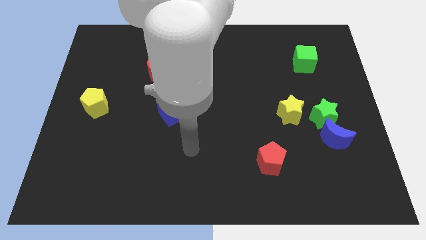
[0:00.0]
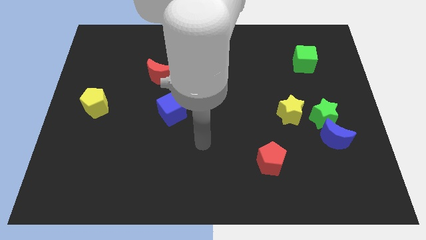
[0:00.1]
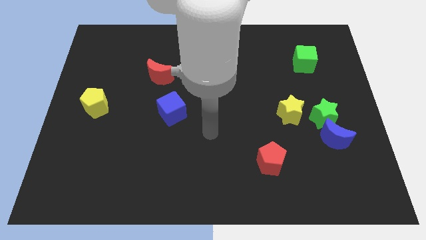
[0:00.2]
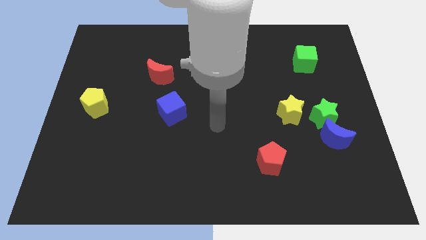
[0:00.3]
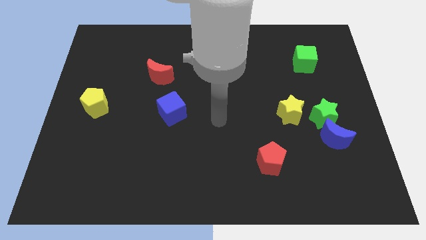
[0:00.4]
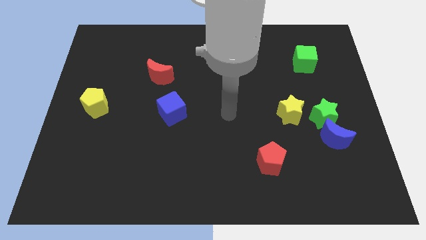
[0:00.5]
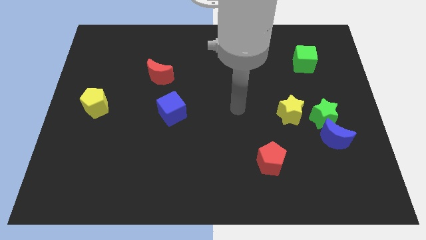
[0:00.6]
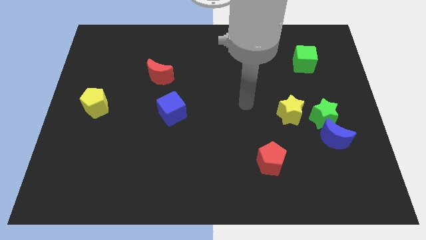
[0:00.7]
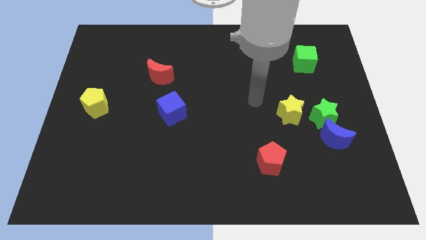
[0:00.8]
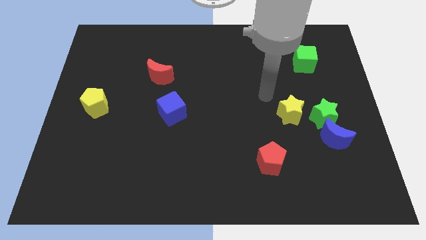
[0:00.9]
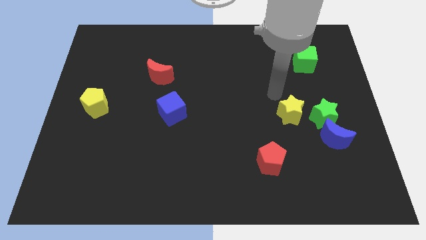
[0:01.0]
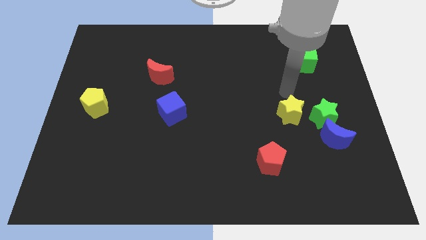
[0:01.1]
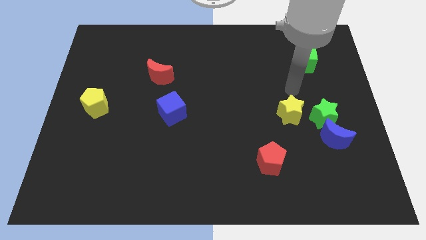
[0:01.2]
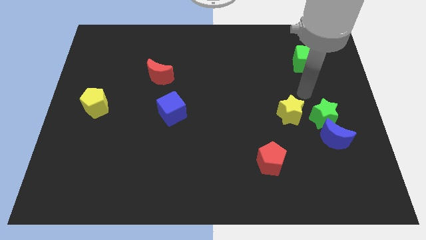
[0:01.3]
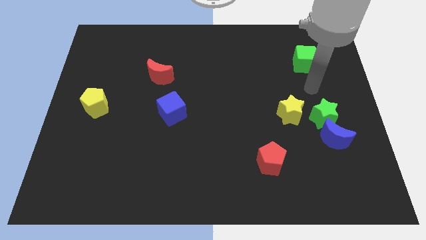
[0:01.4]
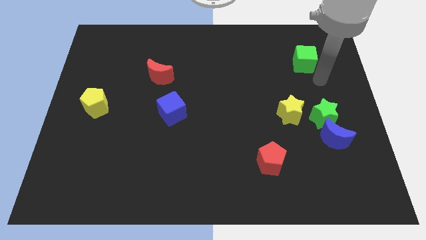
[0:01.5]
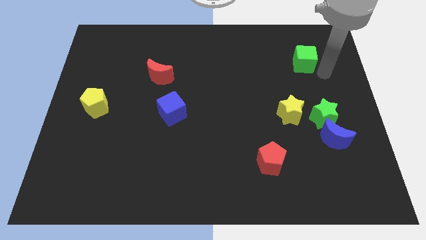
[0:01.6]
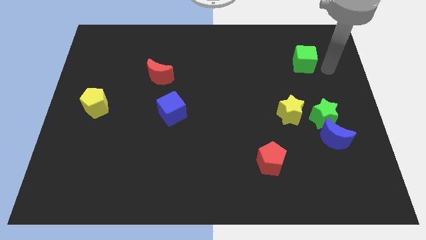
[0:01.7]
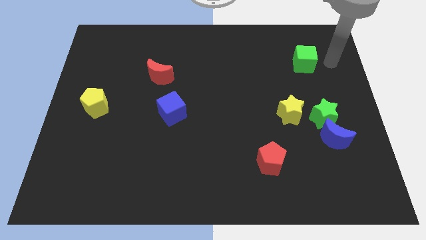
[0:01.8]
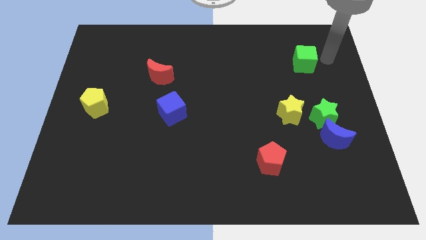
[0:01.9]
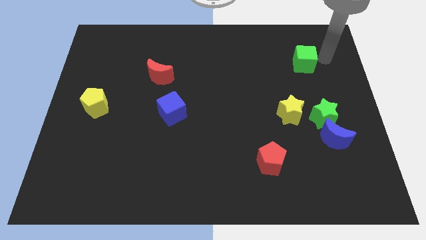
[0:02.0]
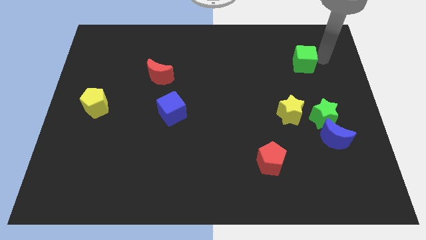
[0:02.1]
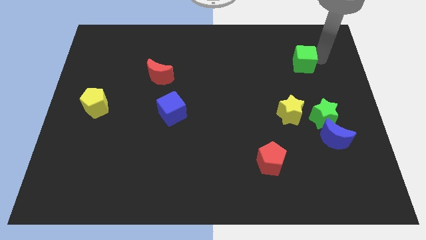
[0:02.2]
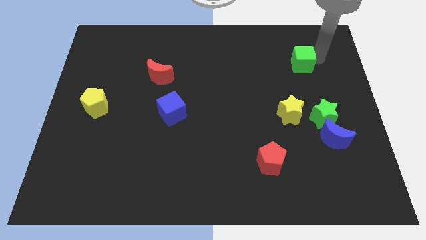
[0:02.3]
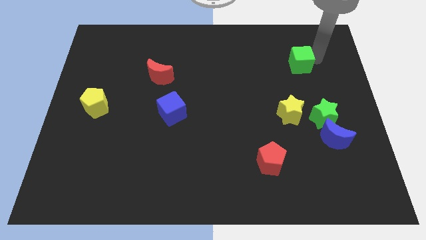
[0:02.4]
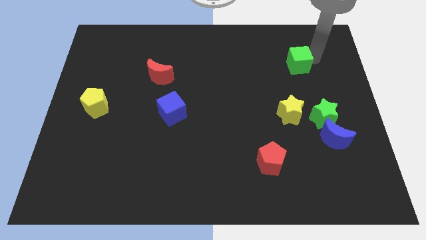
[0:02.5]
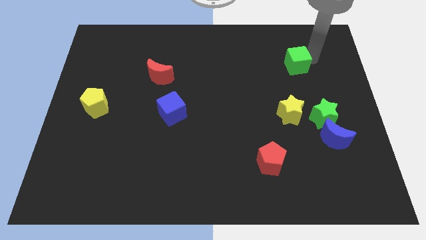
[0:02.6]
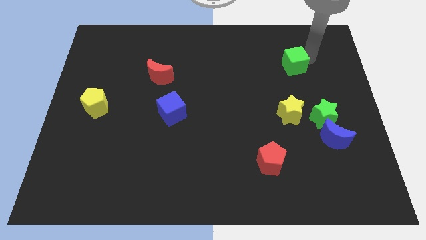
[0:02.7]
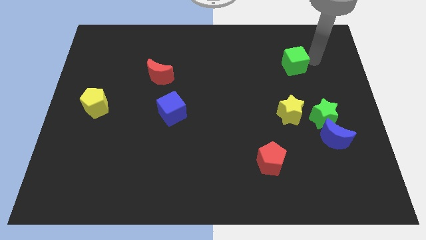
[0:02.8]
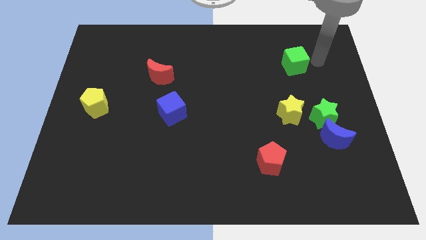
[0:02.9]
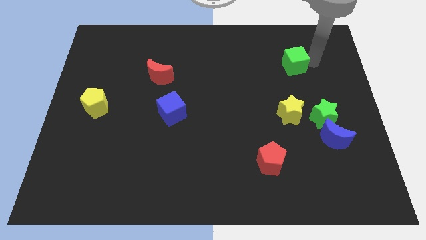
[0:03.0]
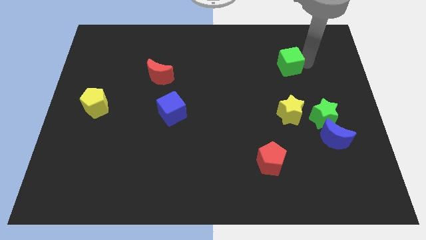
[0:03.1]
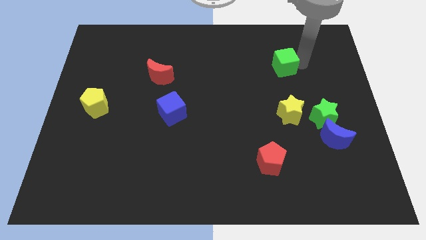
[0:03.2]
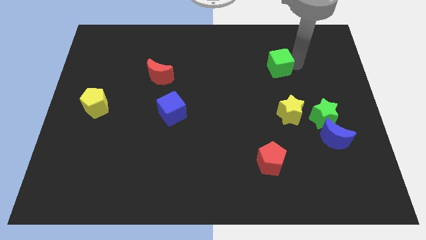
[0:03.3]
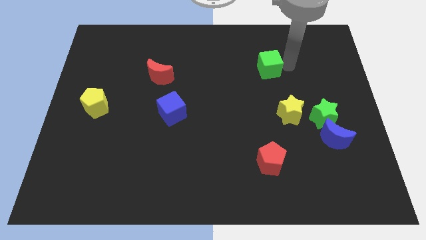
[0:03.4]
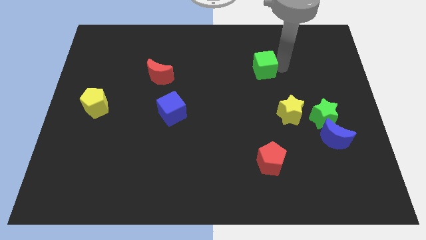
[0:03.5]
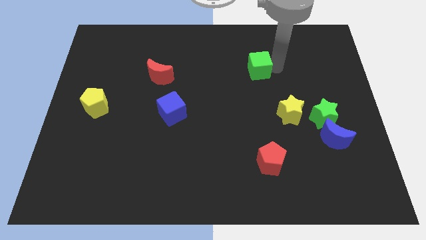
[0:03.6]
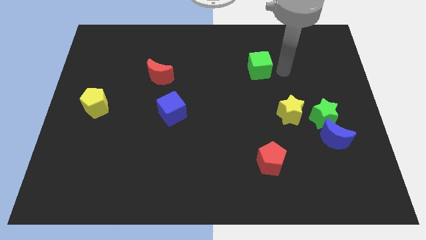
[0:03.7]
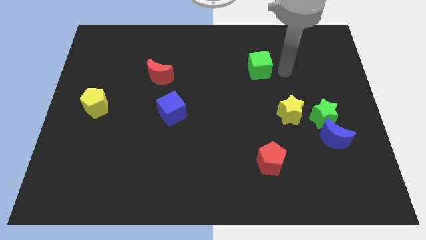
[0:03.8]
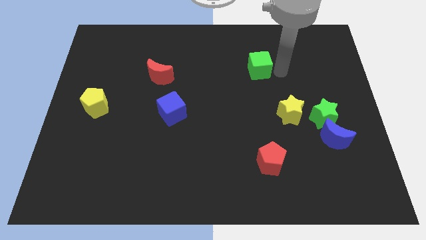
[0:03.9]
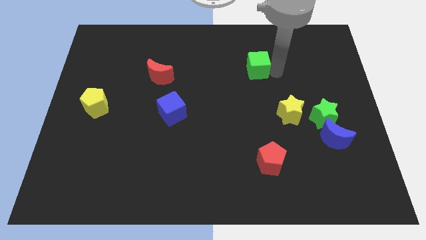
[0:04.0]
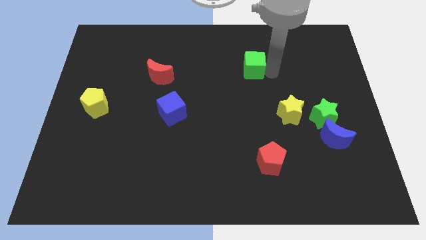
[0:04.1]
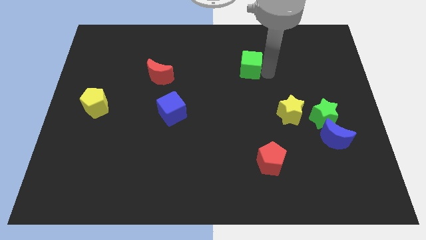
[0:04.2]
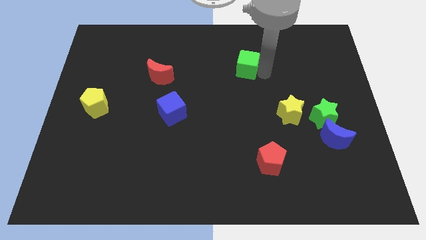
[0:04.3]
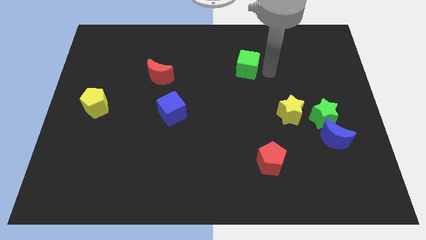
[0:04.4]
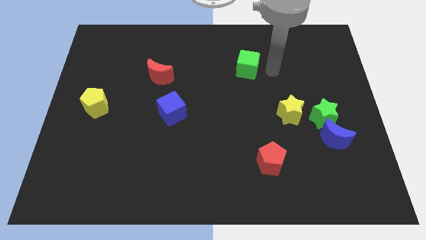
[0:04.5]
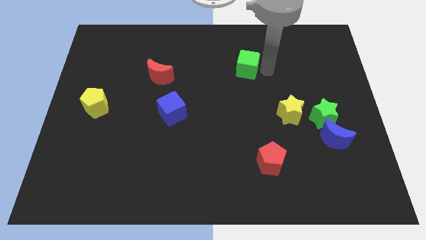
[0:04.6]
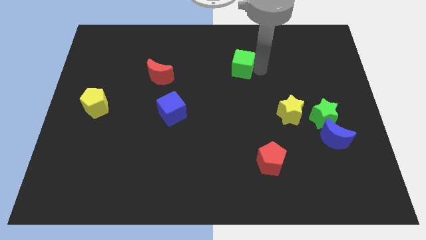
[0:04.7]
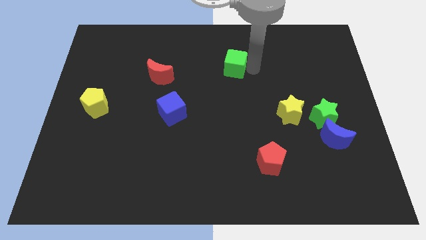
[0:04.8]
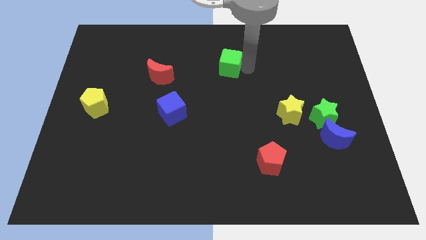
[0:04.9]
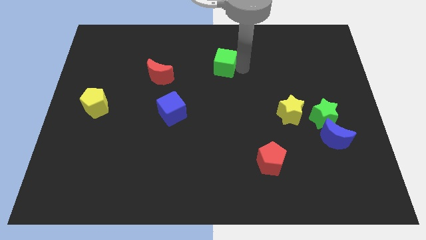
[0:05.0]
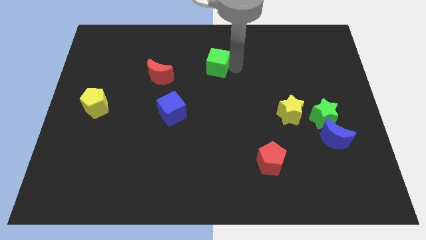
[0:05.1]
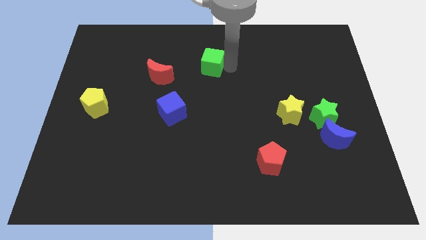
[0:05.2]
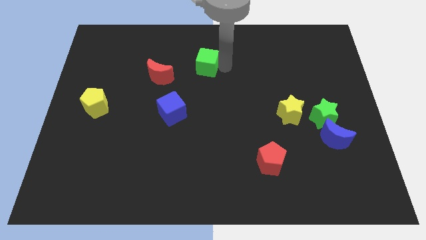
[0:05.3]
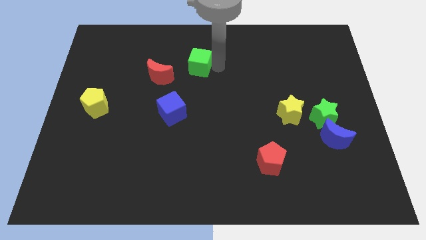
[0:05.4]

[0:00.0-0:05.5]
push the green cube to the top right of the red moon

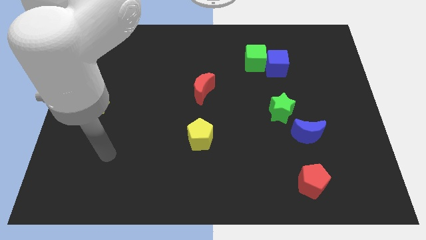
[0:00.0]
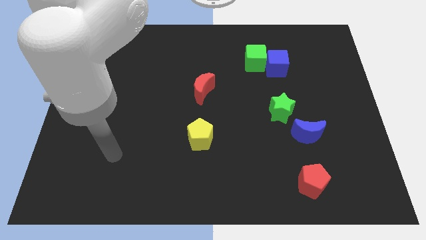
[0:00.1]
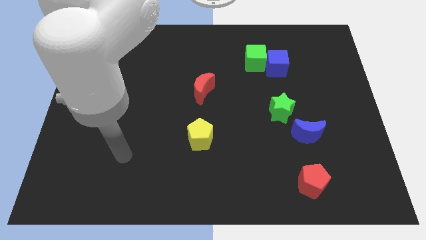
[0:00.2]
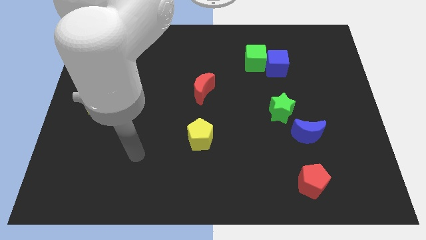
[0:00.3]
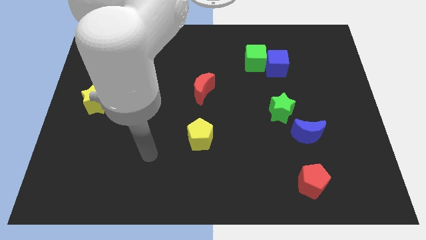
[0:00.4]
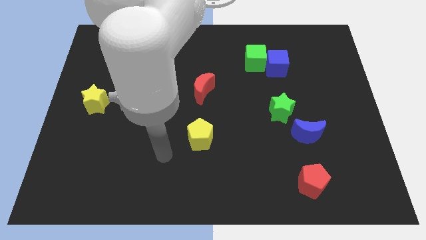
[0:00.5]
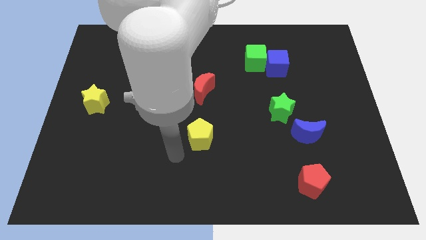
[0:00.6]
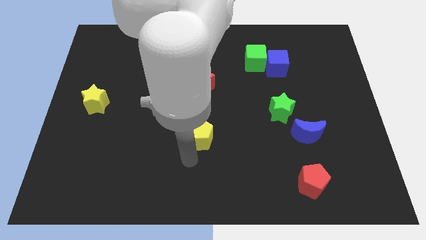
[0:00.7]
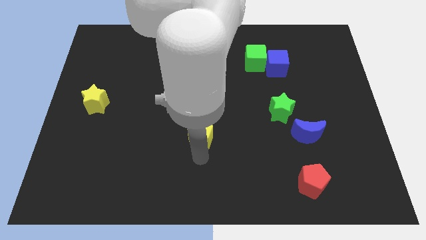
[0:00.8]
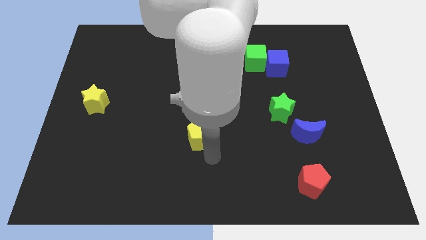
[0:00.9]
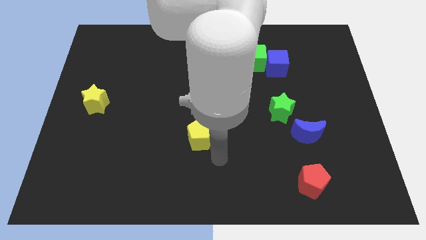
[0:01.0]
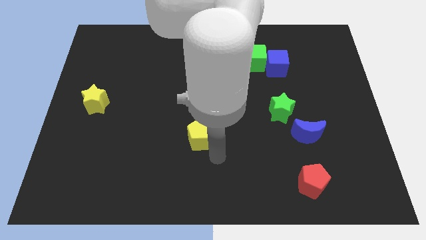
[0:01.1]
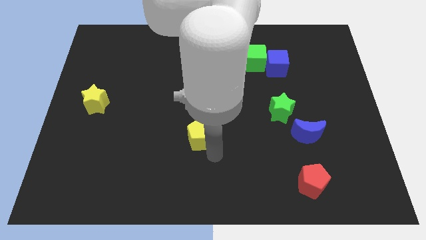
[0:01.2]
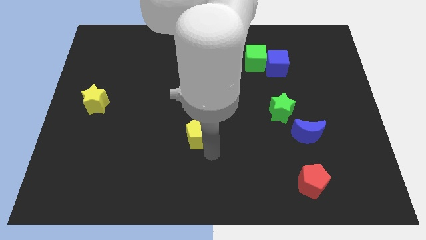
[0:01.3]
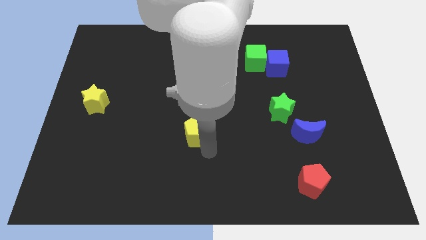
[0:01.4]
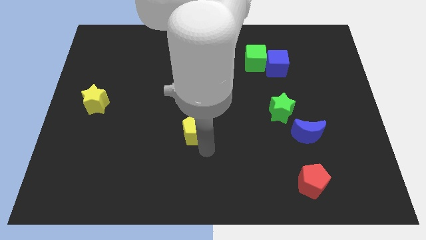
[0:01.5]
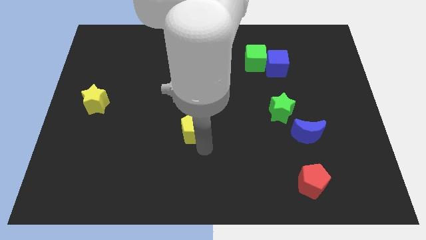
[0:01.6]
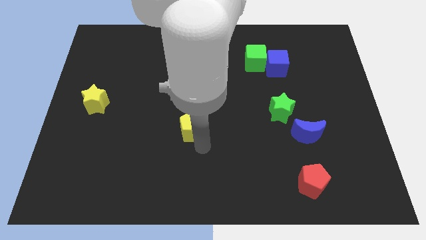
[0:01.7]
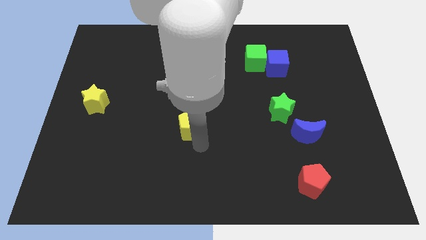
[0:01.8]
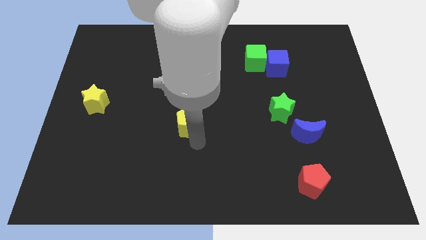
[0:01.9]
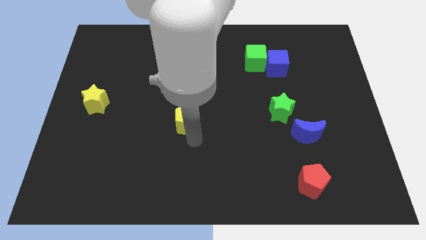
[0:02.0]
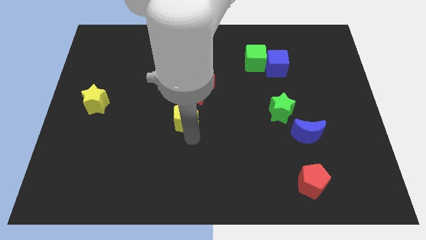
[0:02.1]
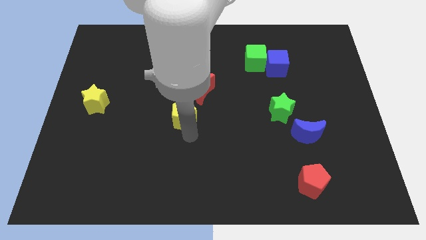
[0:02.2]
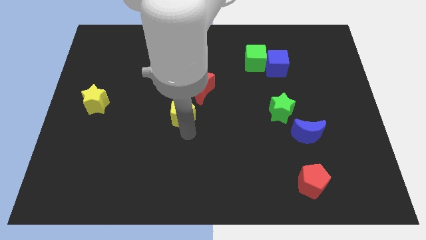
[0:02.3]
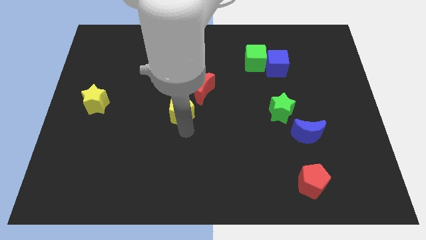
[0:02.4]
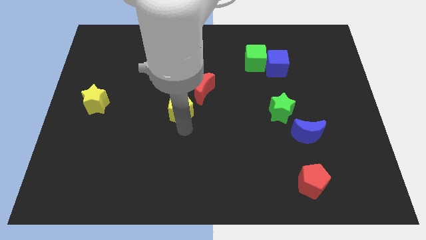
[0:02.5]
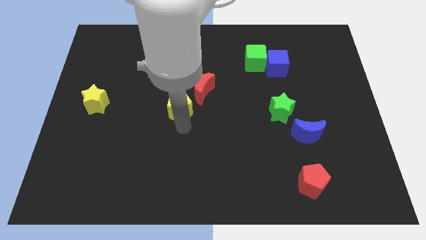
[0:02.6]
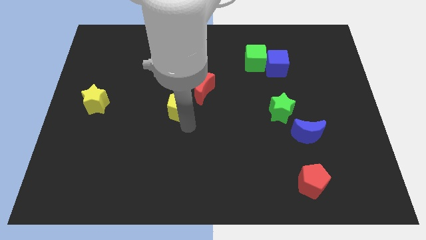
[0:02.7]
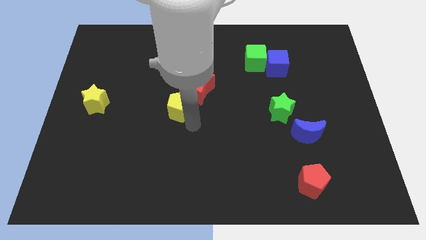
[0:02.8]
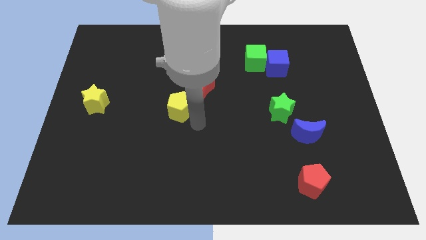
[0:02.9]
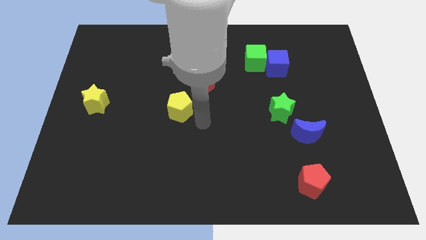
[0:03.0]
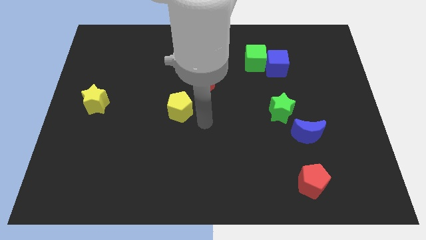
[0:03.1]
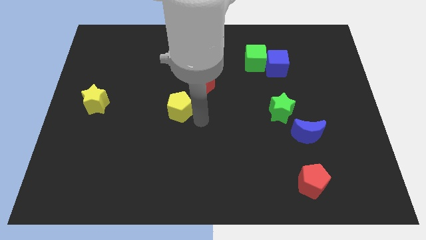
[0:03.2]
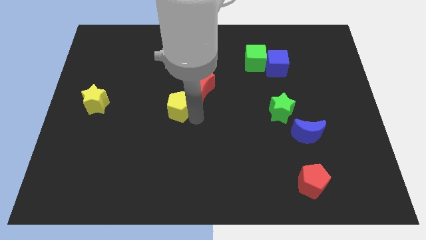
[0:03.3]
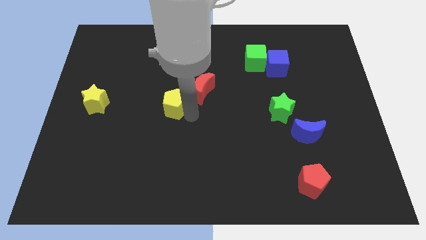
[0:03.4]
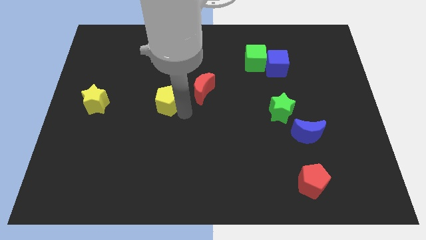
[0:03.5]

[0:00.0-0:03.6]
slide the yellow pentagon to the left side of the red moon
